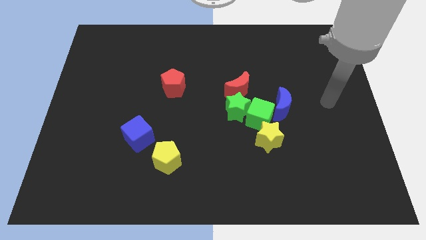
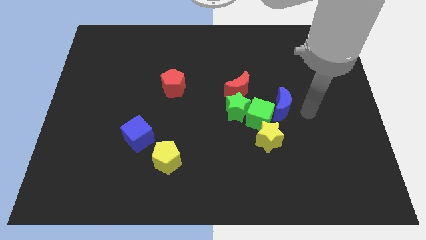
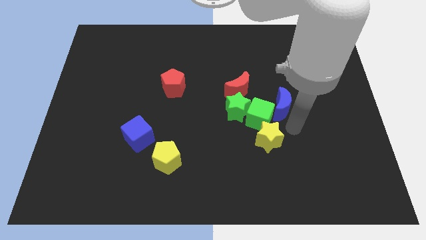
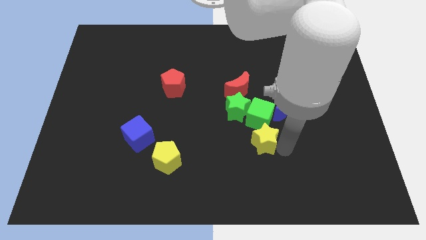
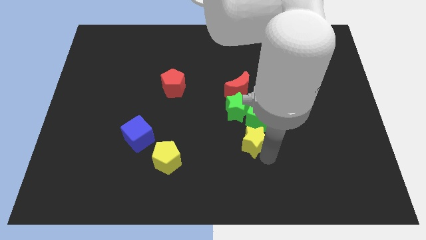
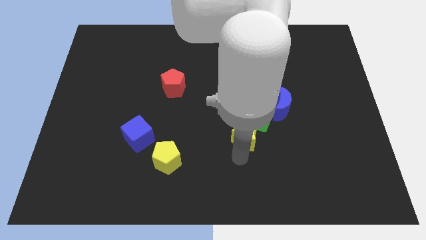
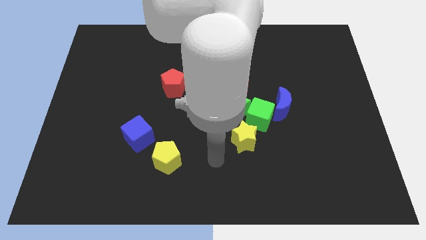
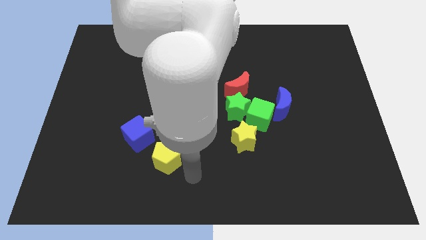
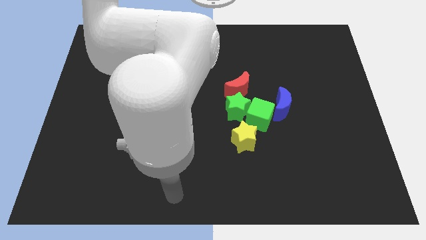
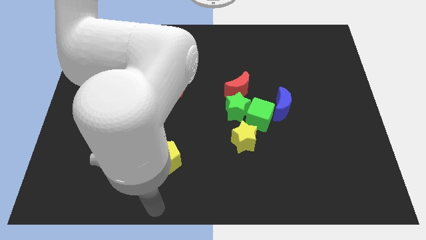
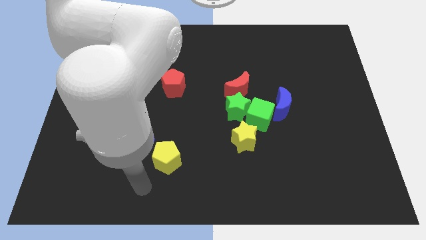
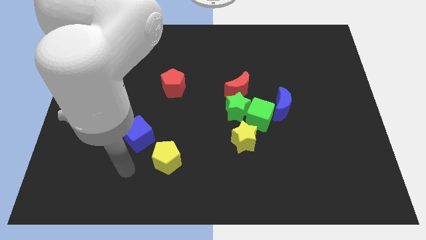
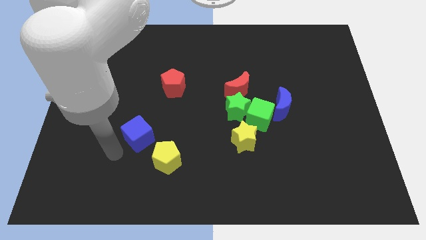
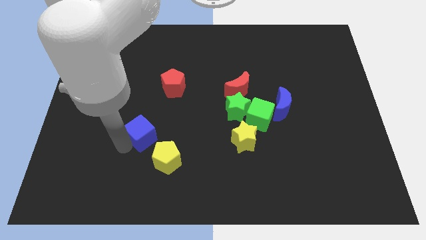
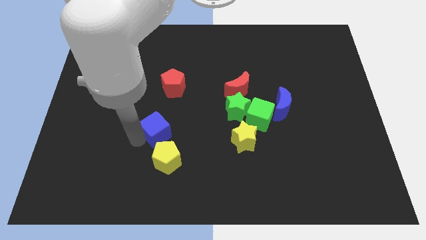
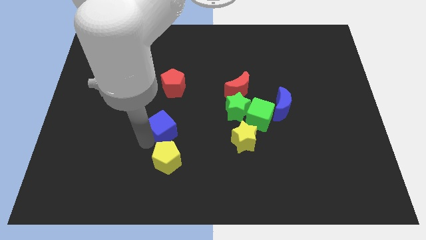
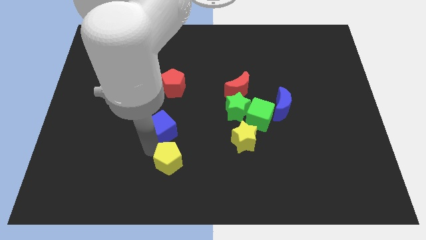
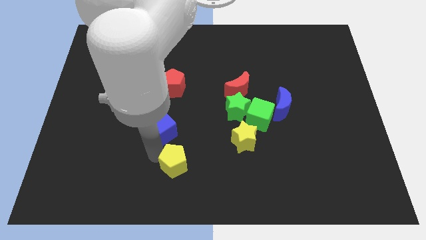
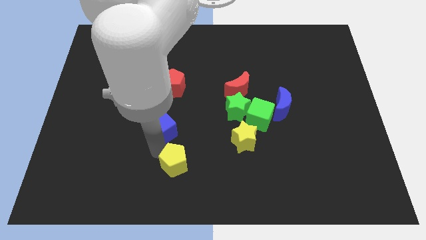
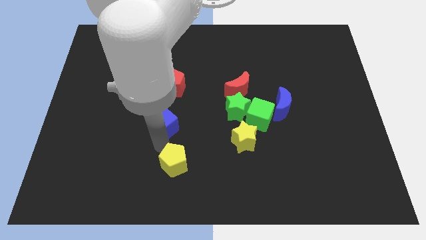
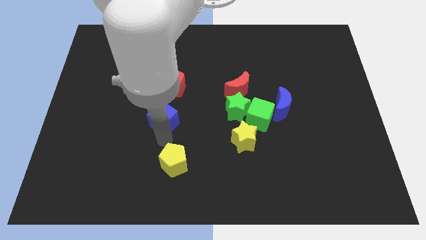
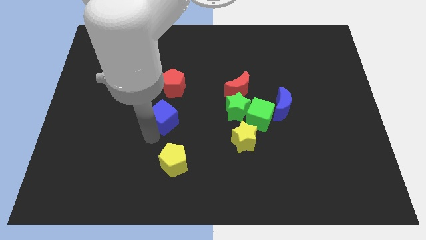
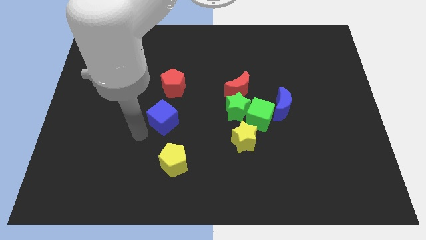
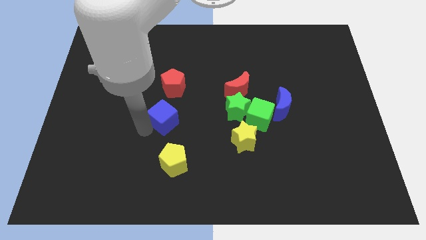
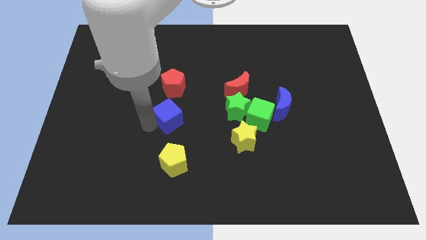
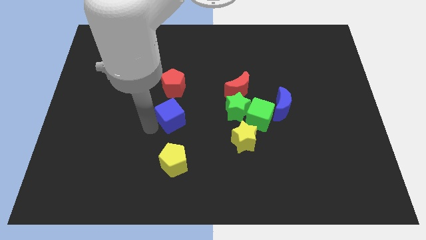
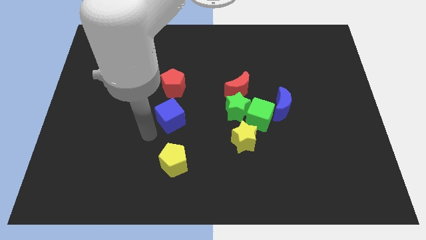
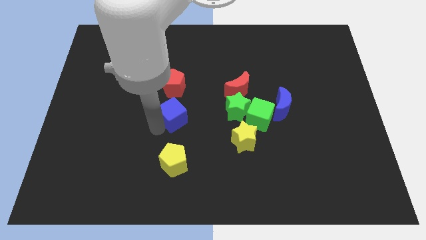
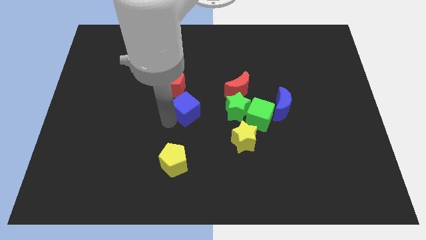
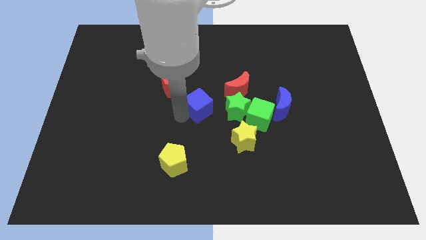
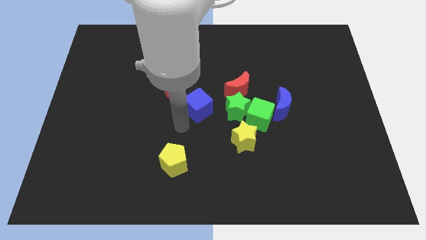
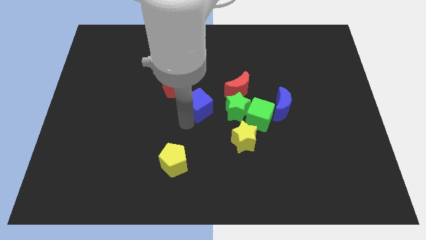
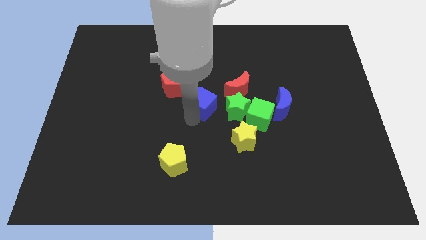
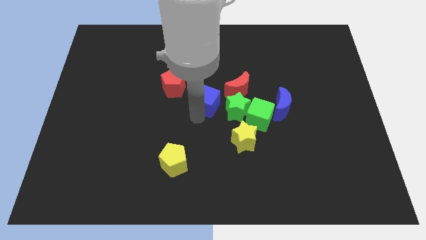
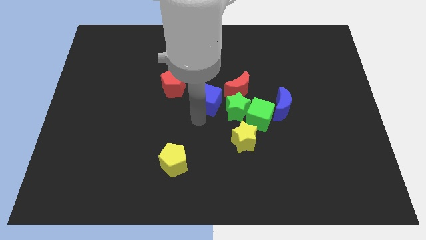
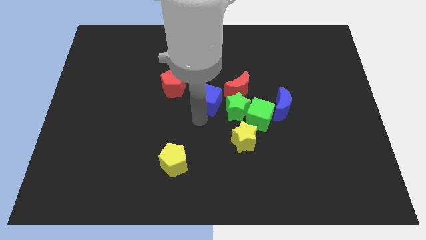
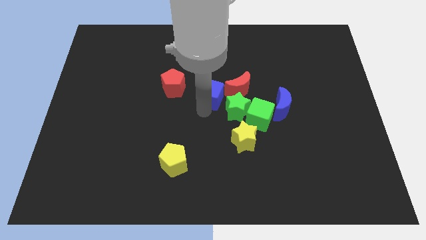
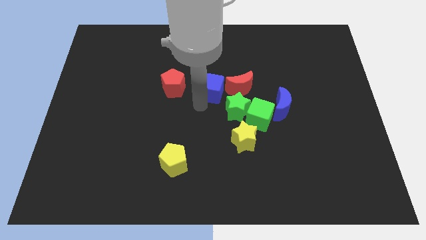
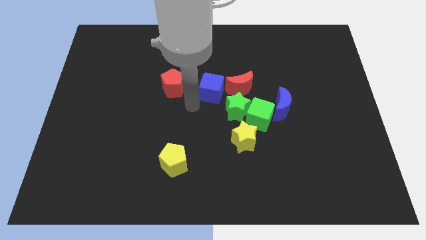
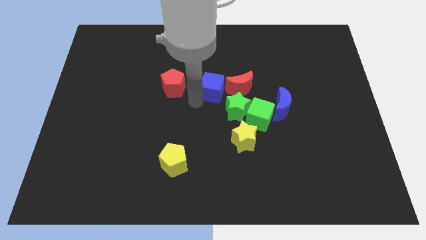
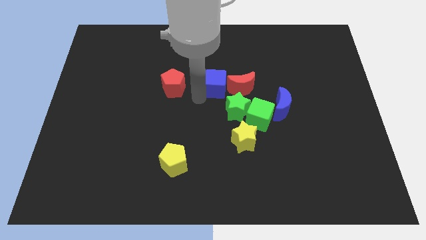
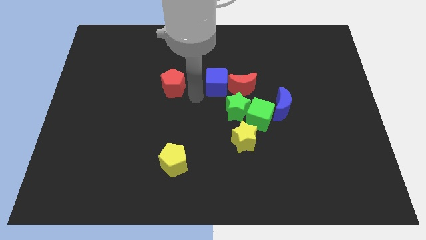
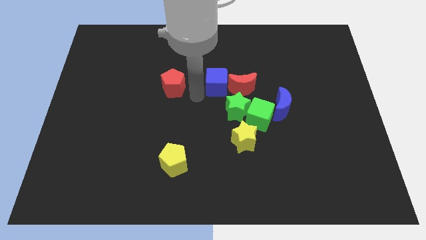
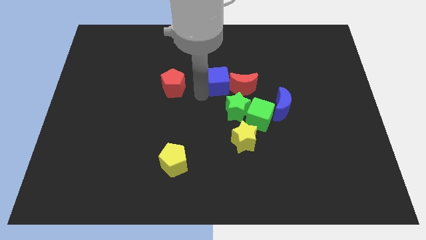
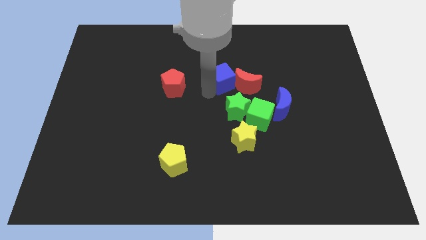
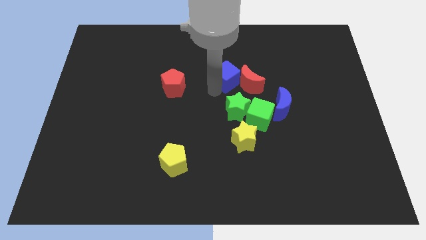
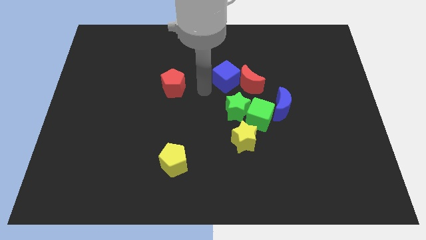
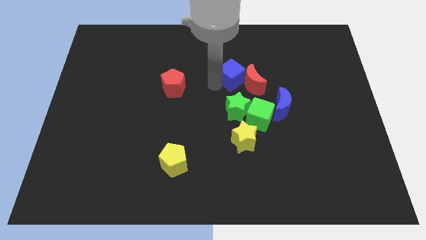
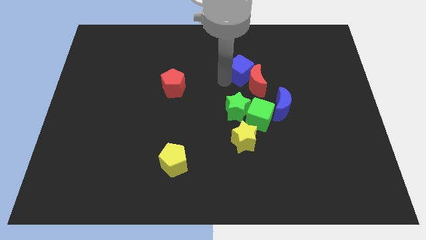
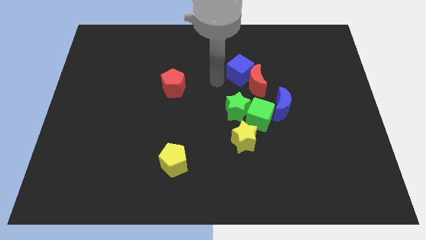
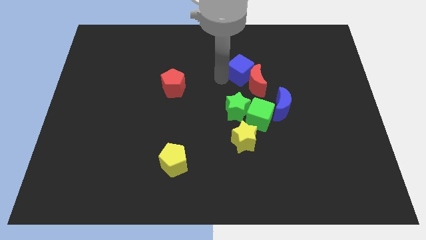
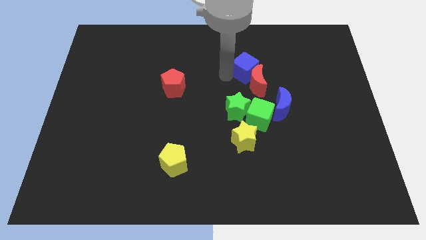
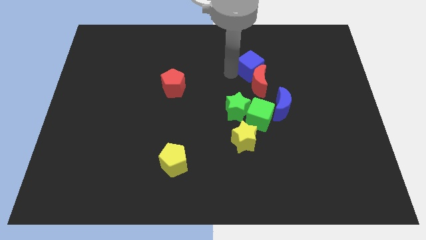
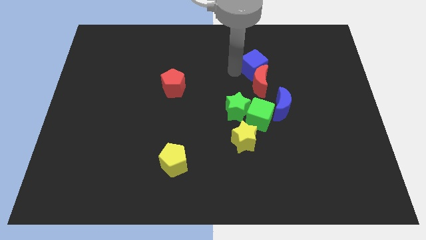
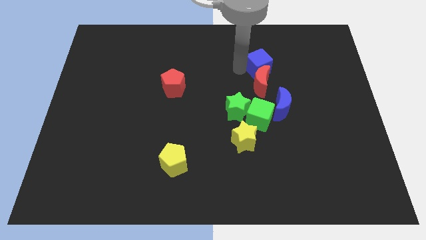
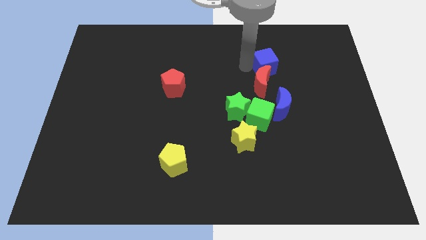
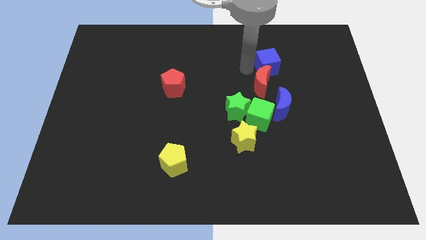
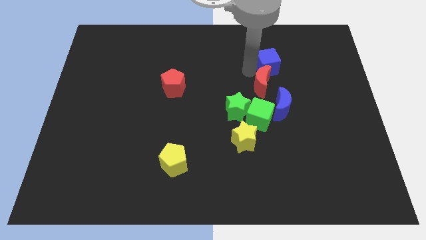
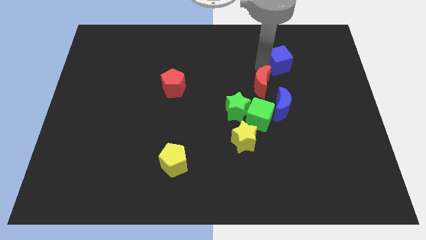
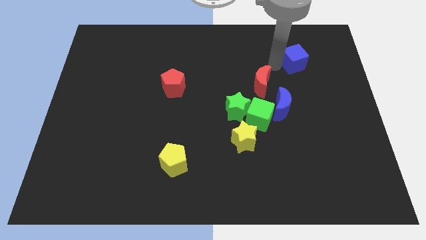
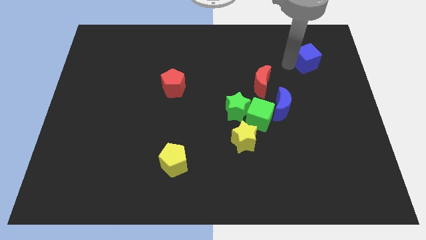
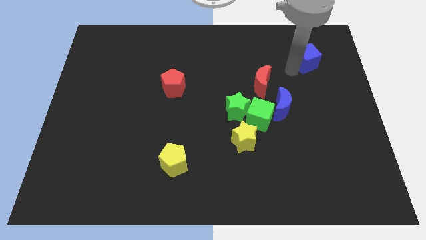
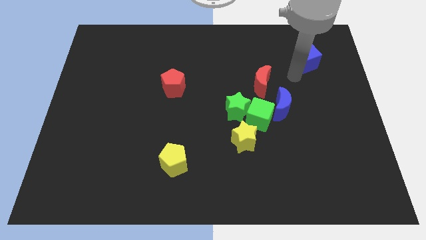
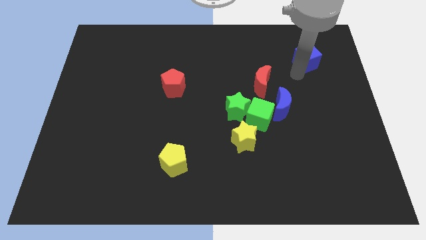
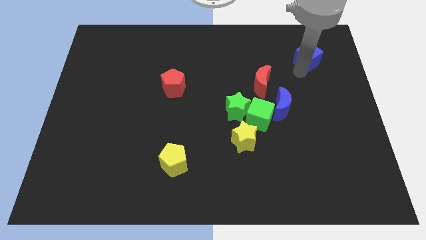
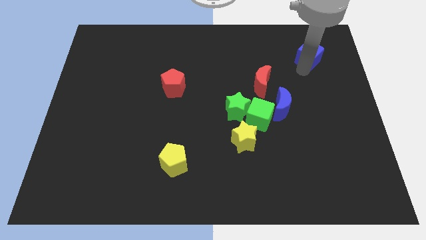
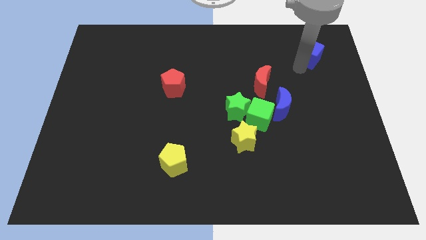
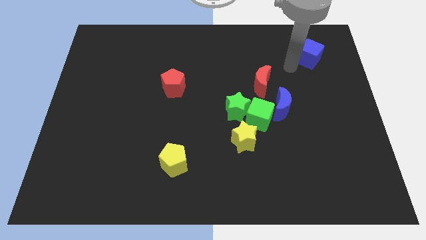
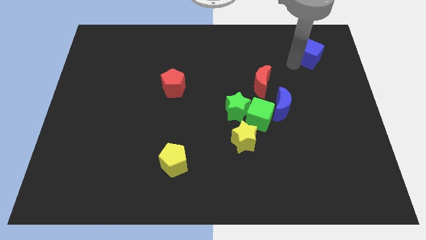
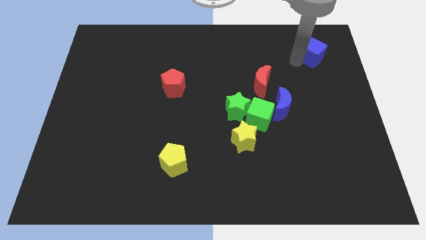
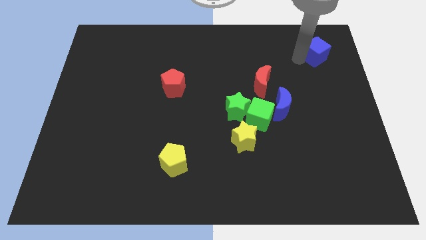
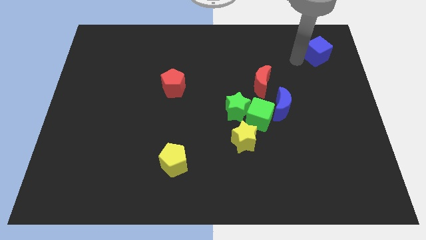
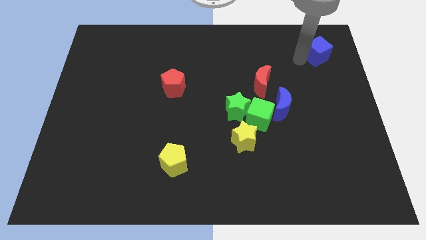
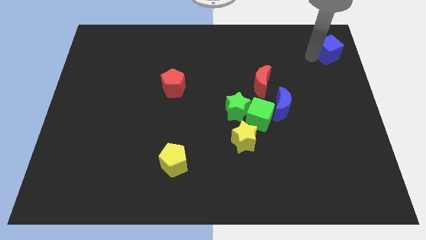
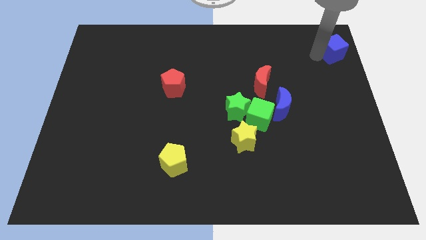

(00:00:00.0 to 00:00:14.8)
slide the blue cube to the top right of the board
